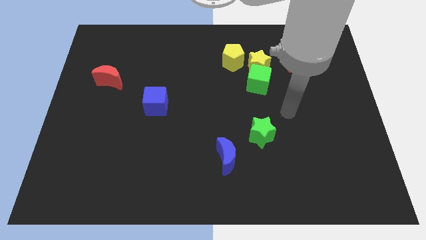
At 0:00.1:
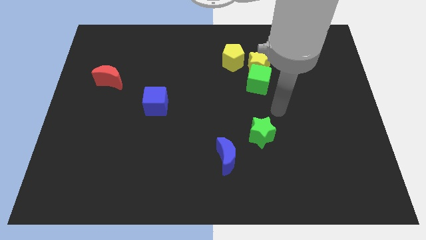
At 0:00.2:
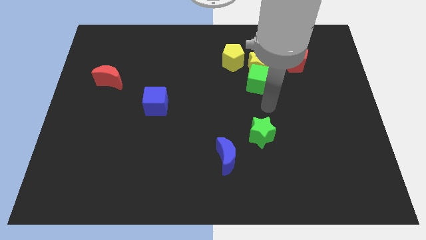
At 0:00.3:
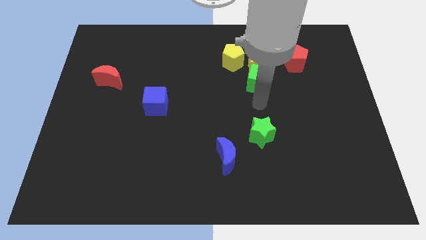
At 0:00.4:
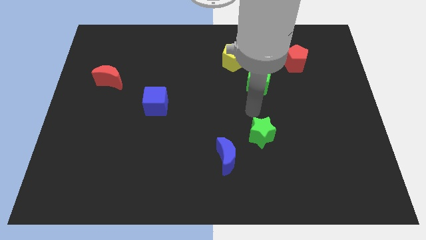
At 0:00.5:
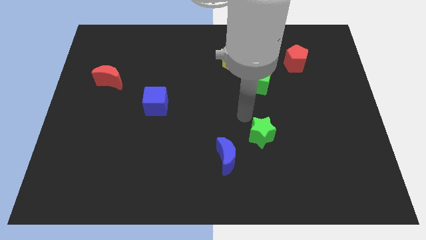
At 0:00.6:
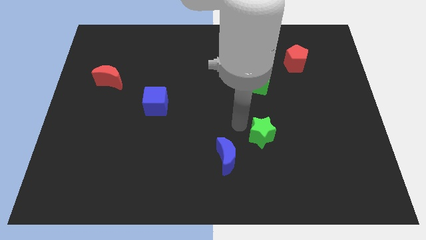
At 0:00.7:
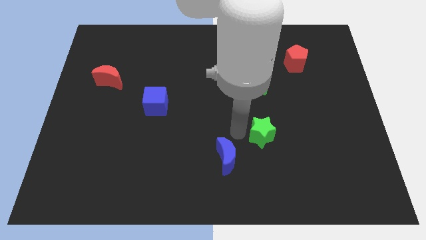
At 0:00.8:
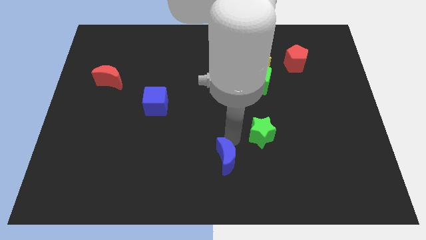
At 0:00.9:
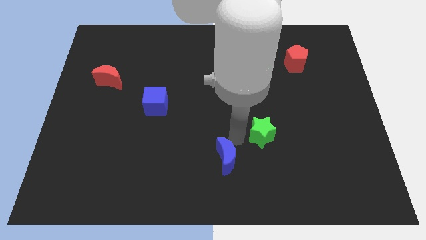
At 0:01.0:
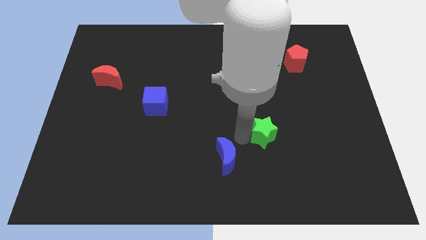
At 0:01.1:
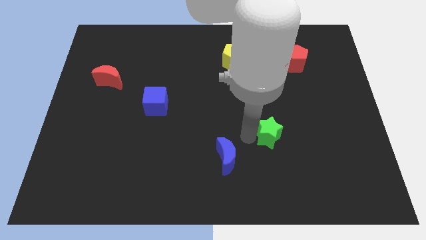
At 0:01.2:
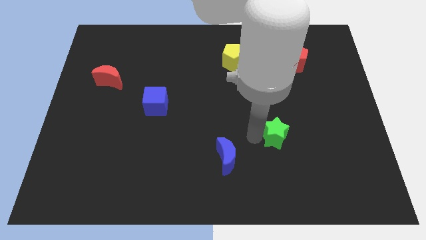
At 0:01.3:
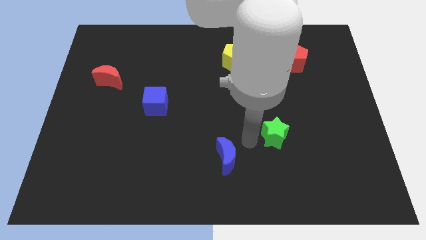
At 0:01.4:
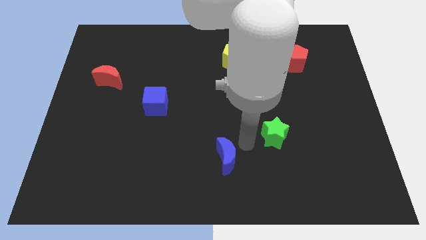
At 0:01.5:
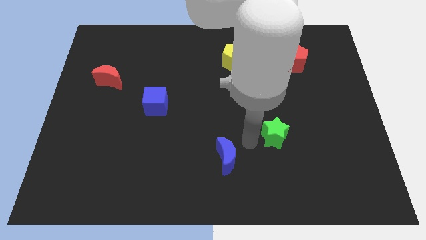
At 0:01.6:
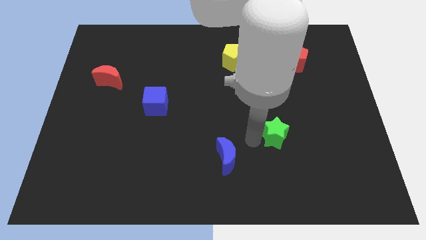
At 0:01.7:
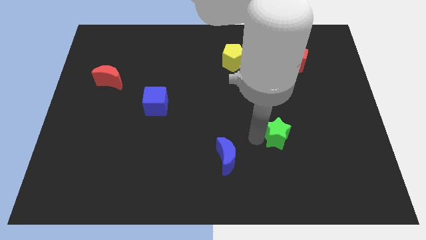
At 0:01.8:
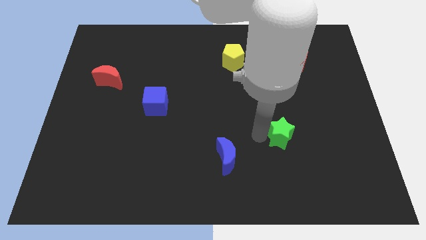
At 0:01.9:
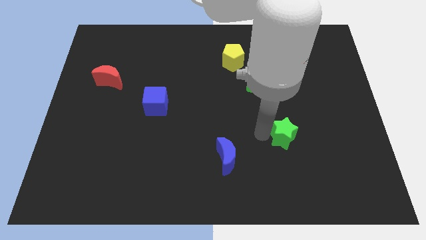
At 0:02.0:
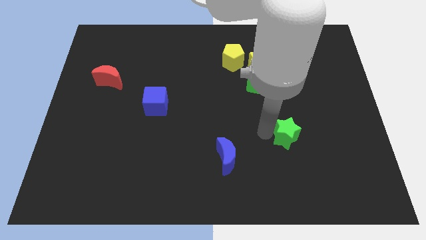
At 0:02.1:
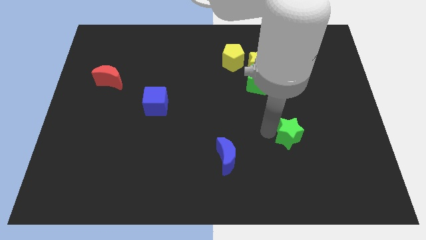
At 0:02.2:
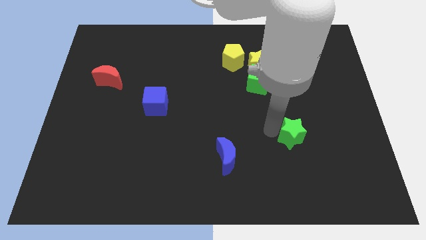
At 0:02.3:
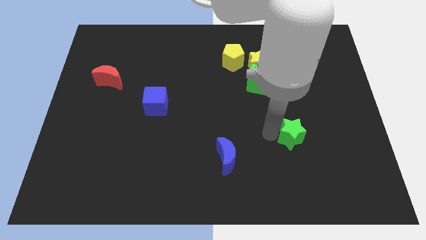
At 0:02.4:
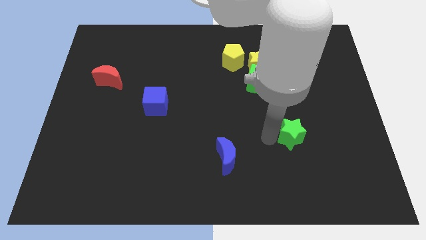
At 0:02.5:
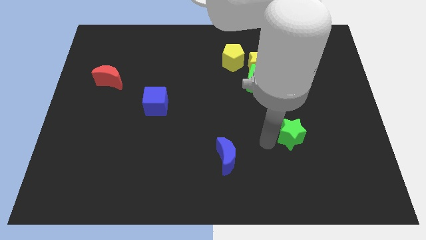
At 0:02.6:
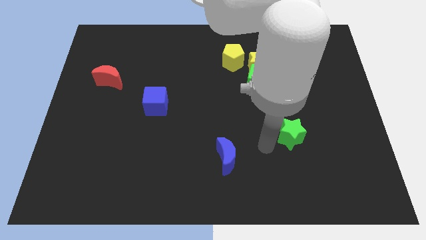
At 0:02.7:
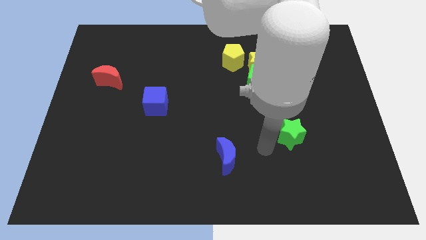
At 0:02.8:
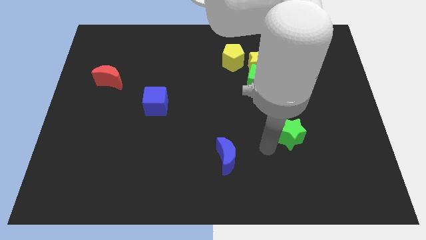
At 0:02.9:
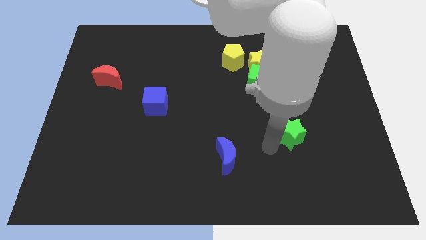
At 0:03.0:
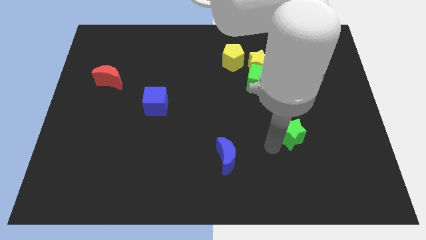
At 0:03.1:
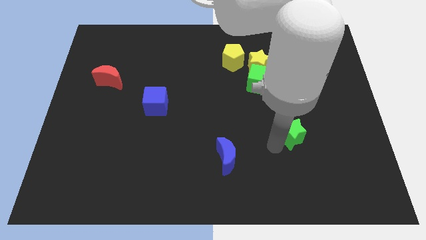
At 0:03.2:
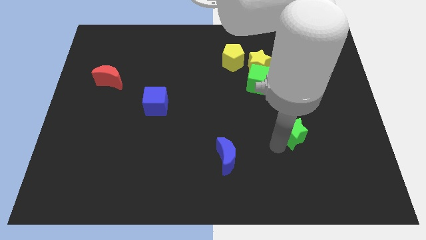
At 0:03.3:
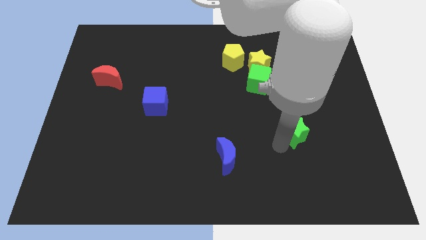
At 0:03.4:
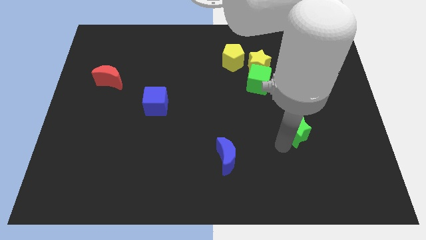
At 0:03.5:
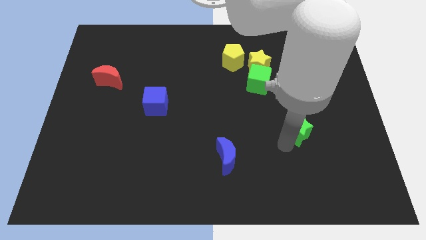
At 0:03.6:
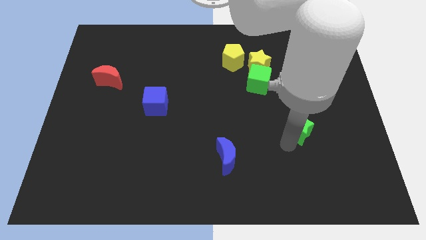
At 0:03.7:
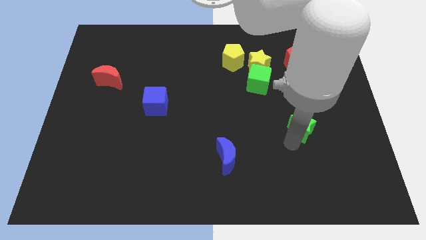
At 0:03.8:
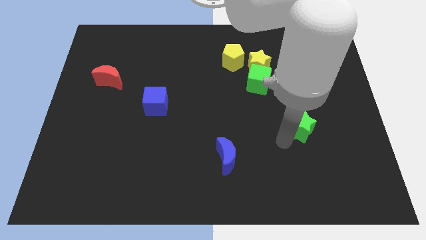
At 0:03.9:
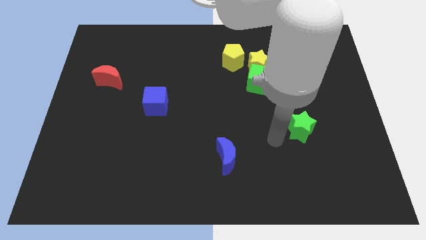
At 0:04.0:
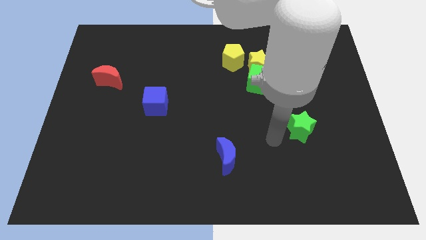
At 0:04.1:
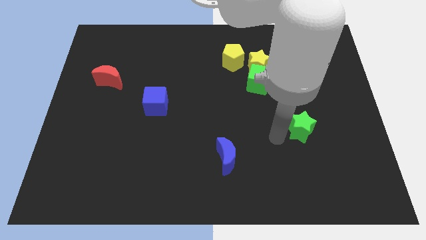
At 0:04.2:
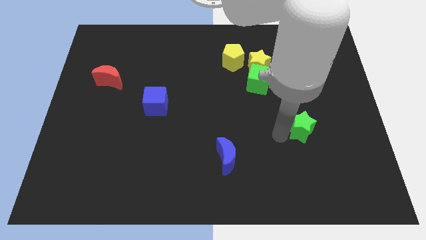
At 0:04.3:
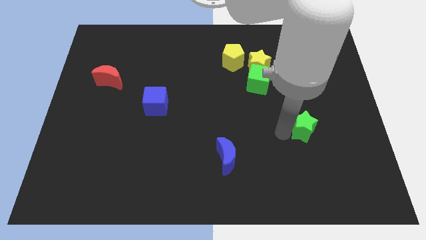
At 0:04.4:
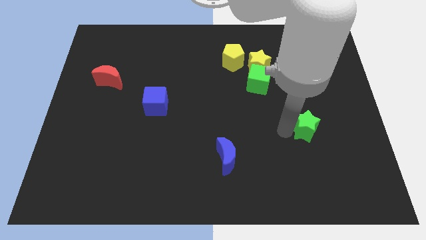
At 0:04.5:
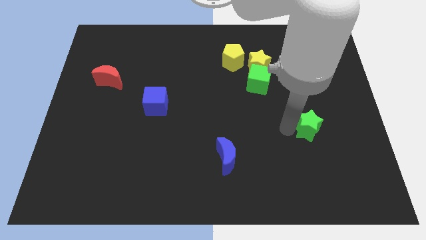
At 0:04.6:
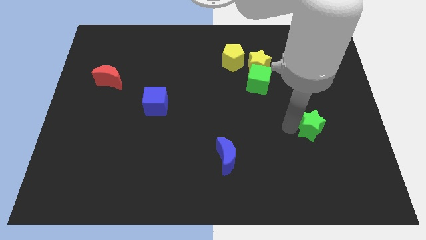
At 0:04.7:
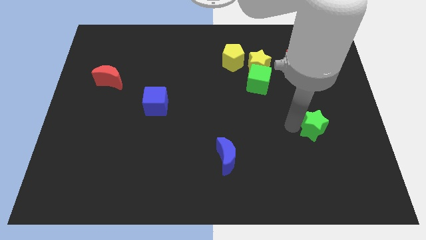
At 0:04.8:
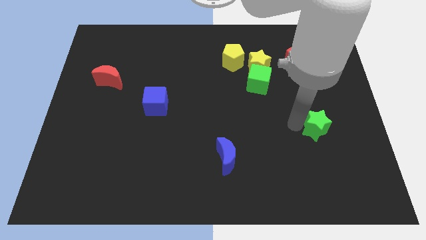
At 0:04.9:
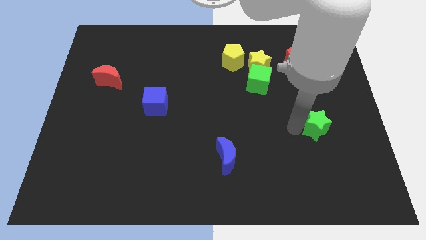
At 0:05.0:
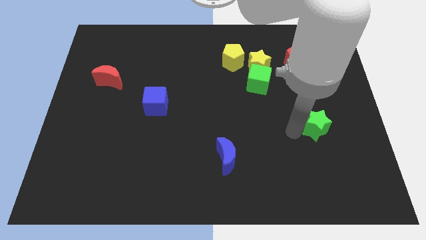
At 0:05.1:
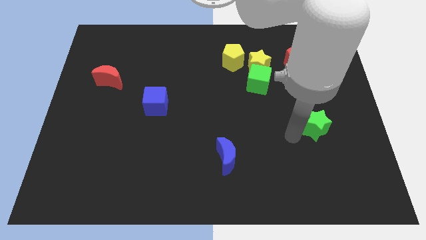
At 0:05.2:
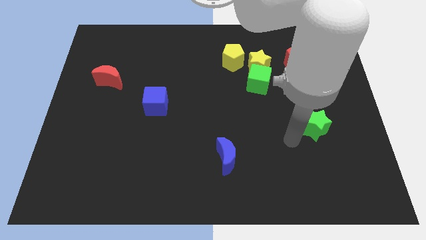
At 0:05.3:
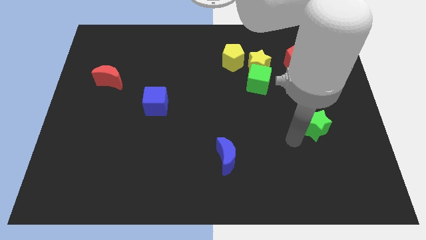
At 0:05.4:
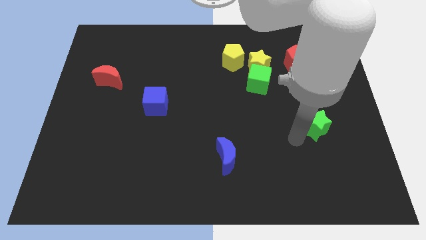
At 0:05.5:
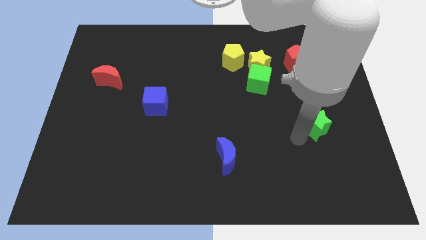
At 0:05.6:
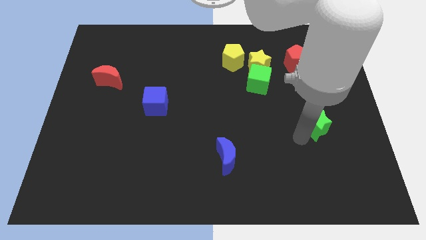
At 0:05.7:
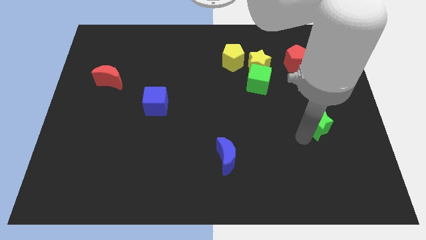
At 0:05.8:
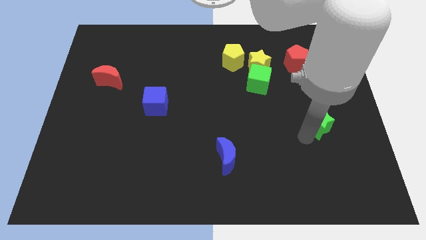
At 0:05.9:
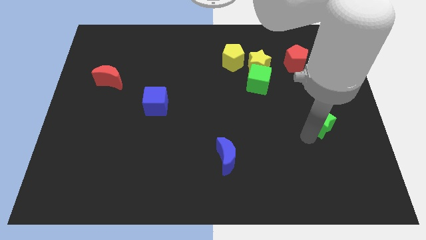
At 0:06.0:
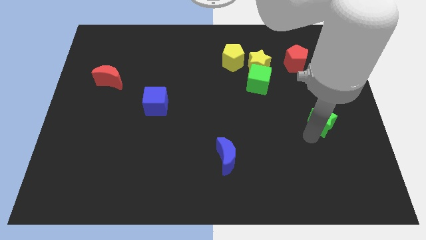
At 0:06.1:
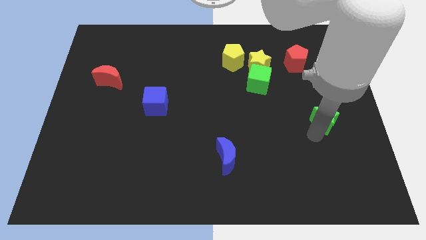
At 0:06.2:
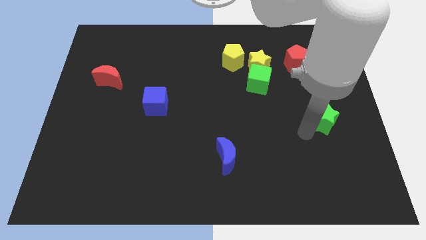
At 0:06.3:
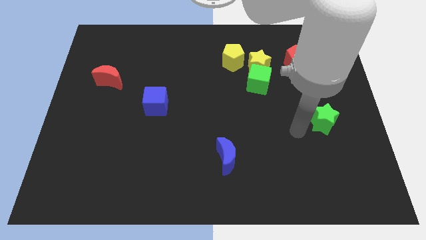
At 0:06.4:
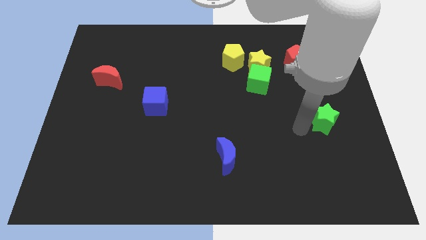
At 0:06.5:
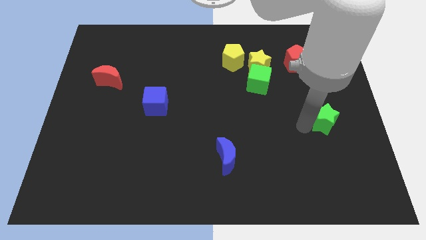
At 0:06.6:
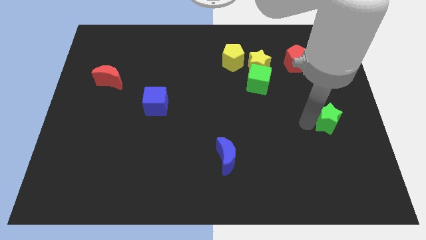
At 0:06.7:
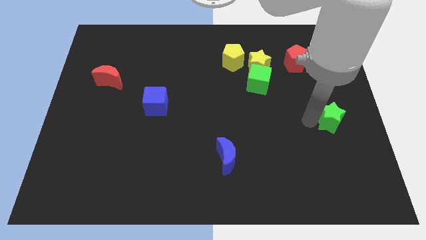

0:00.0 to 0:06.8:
slide the green star to the center right
